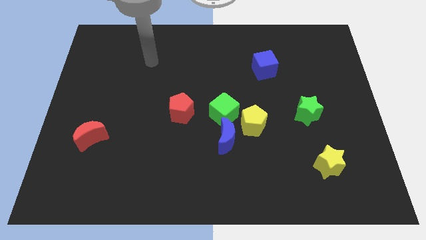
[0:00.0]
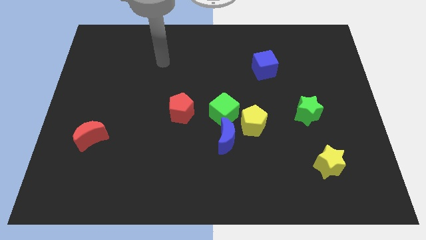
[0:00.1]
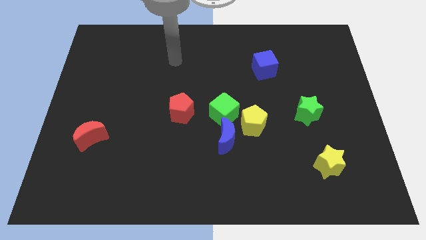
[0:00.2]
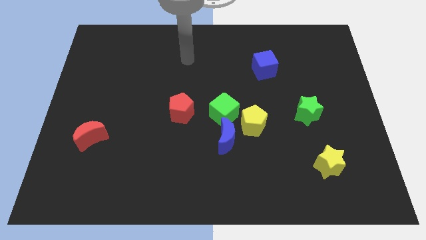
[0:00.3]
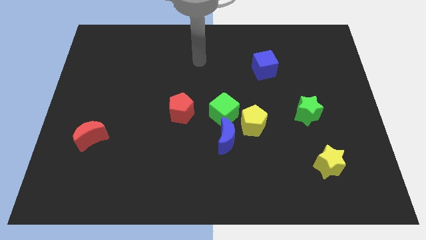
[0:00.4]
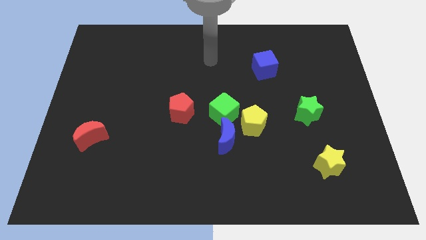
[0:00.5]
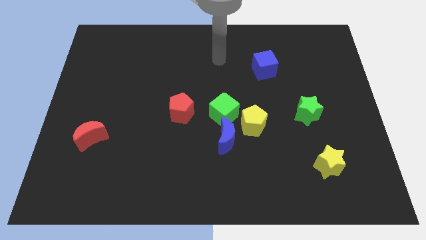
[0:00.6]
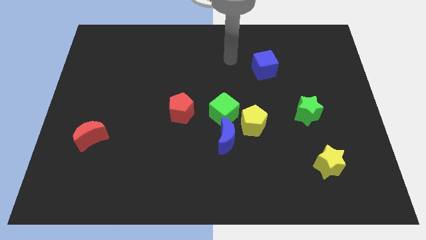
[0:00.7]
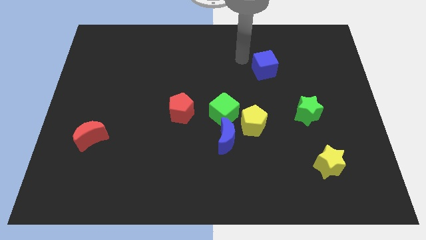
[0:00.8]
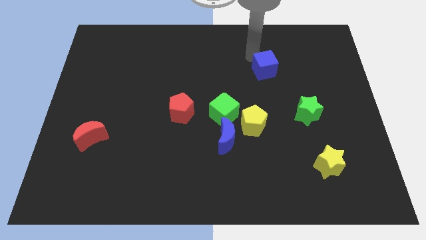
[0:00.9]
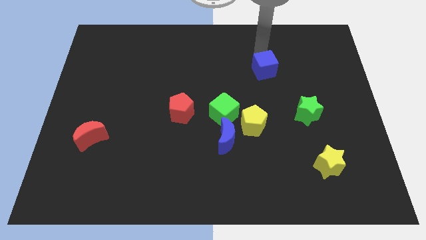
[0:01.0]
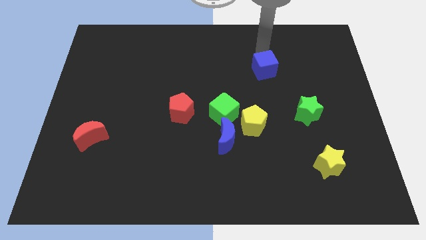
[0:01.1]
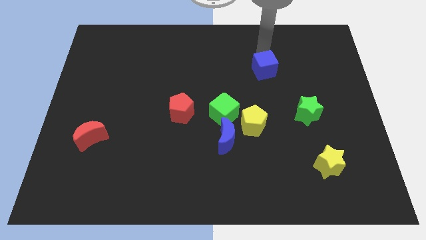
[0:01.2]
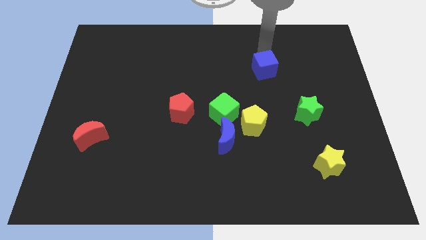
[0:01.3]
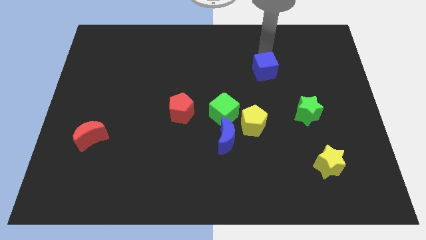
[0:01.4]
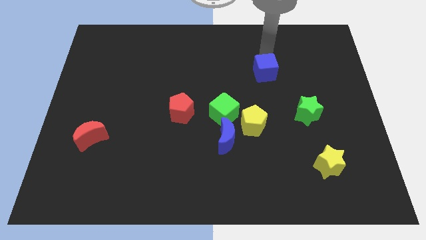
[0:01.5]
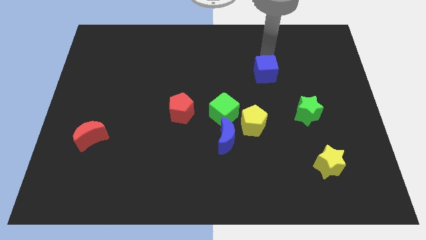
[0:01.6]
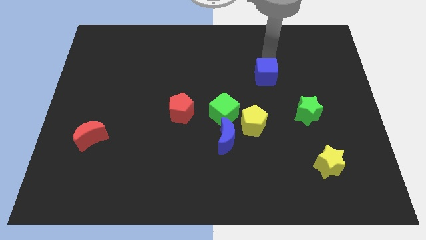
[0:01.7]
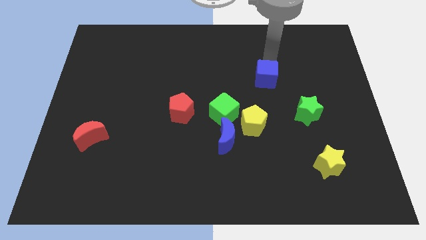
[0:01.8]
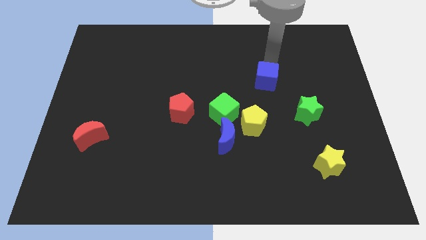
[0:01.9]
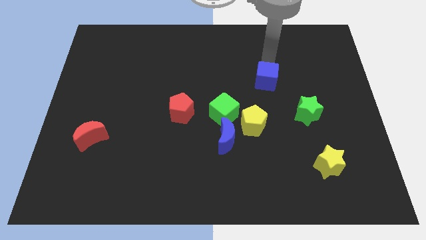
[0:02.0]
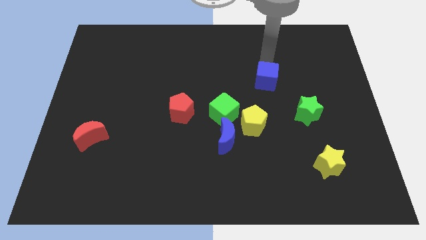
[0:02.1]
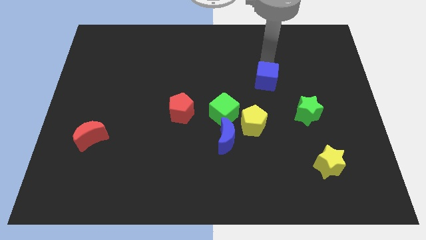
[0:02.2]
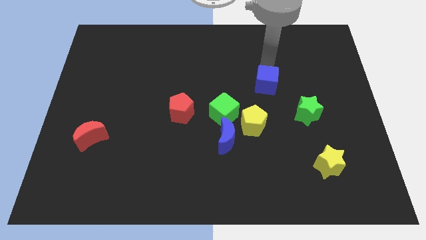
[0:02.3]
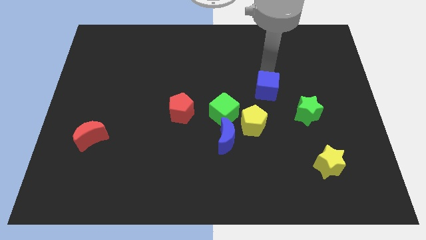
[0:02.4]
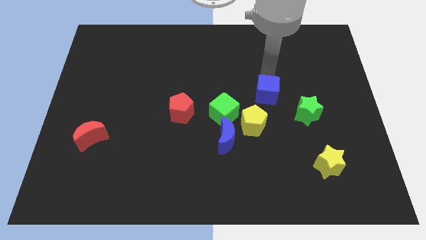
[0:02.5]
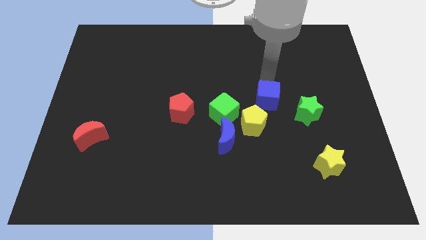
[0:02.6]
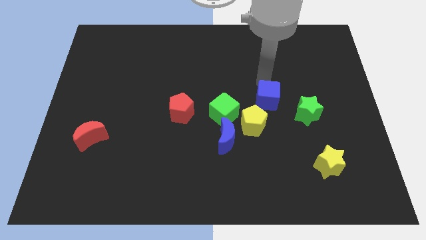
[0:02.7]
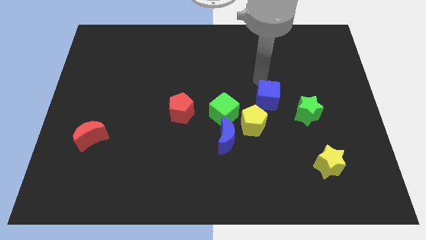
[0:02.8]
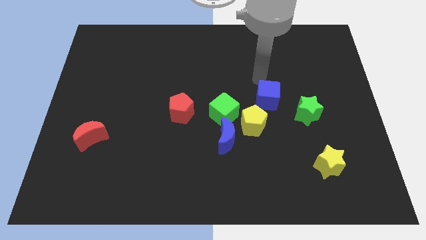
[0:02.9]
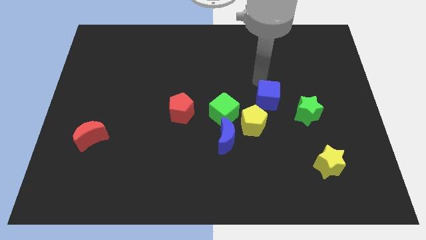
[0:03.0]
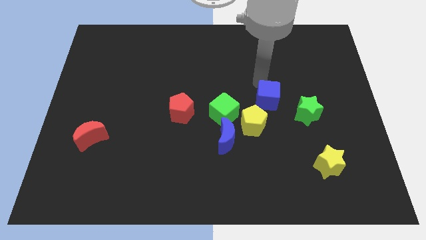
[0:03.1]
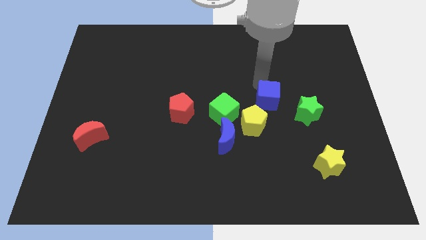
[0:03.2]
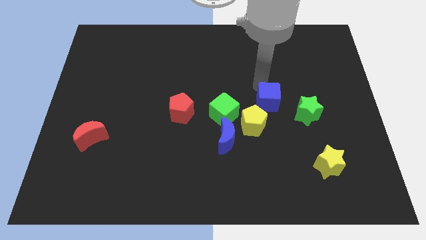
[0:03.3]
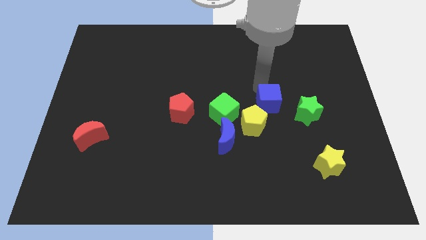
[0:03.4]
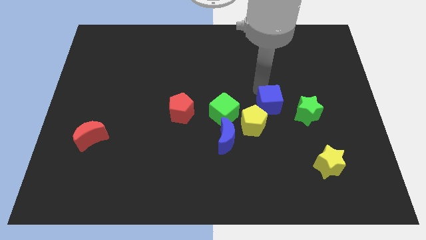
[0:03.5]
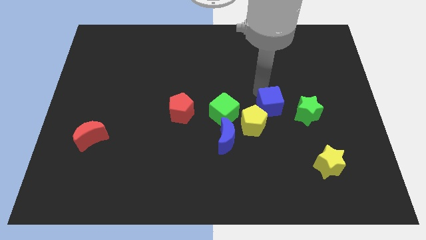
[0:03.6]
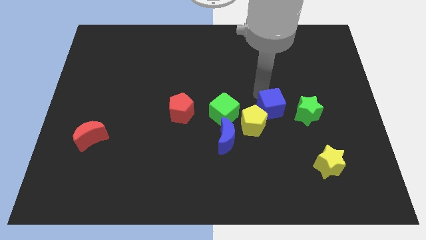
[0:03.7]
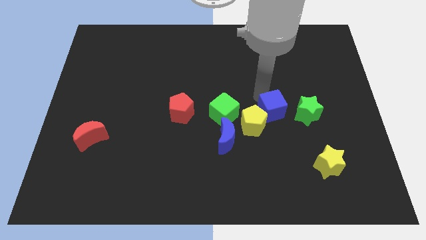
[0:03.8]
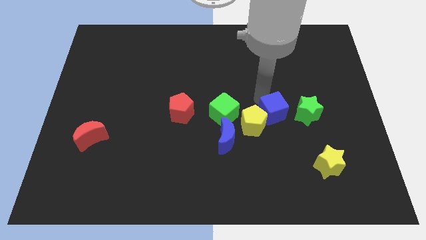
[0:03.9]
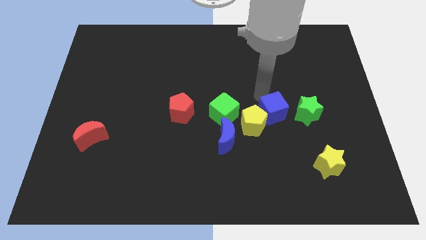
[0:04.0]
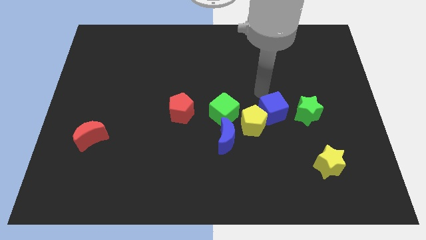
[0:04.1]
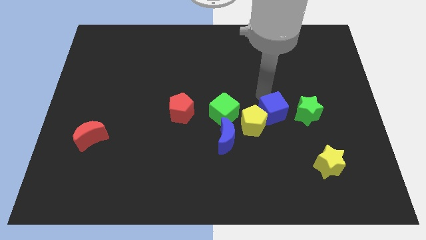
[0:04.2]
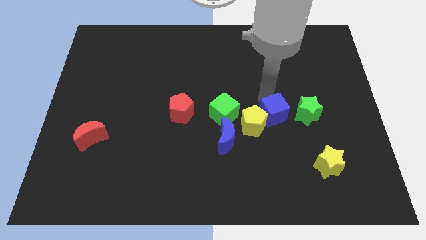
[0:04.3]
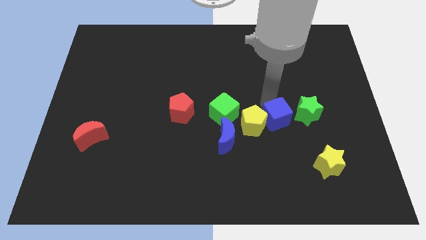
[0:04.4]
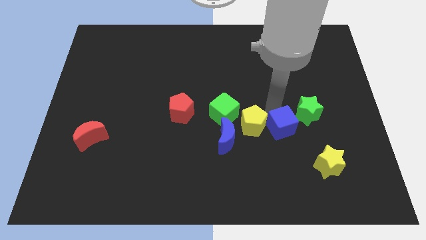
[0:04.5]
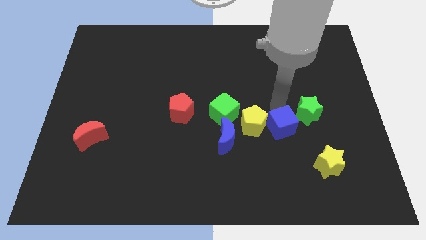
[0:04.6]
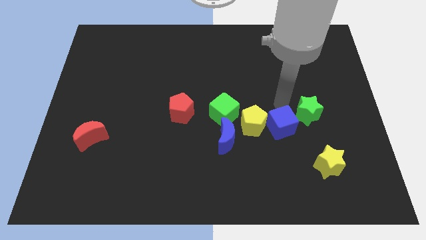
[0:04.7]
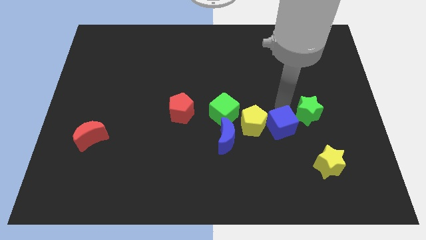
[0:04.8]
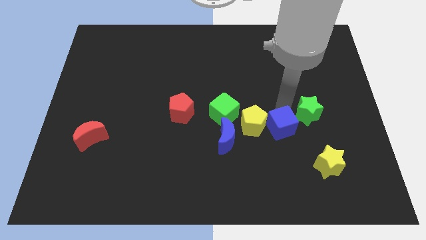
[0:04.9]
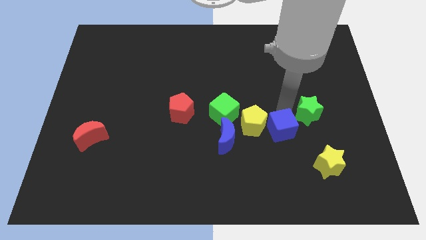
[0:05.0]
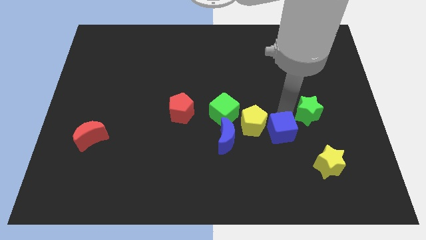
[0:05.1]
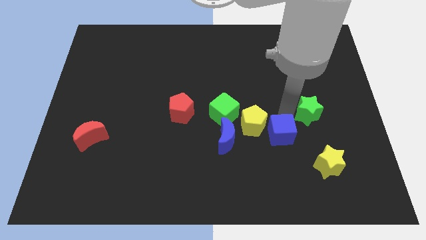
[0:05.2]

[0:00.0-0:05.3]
move the blue cube downwards

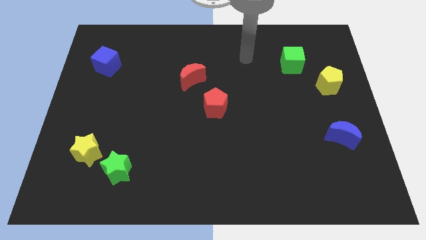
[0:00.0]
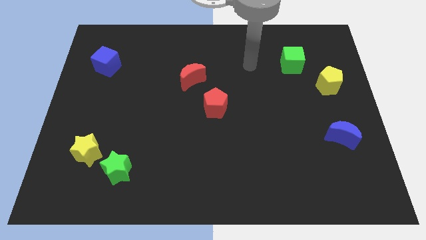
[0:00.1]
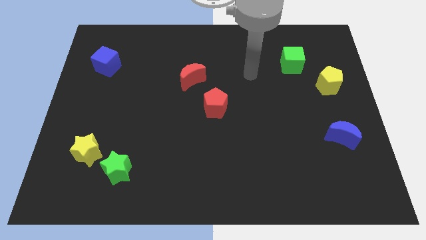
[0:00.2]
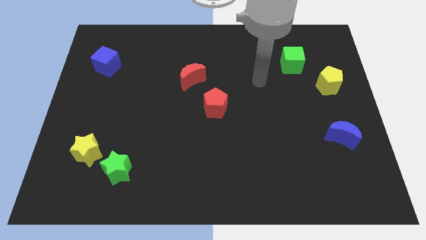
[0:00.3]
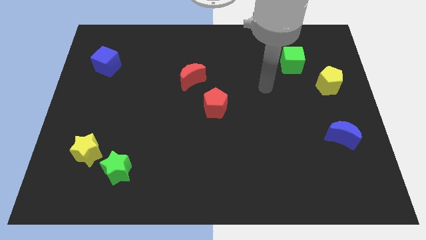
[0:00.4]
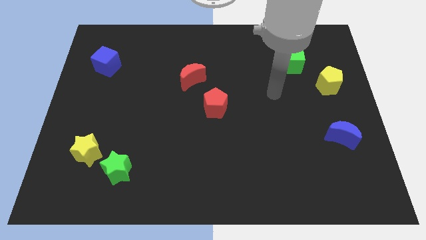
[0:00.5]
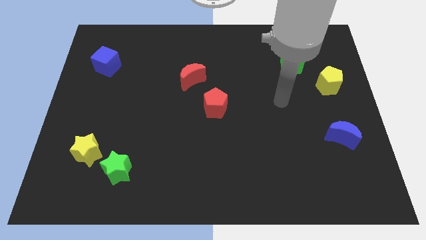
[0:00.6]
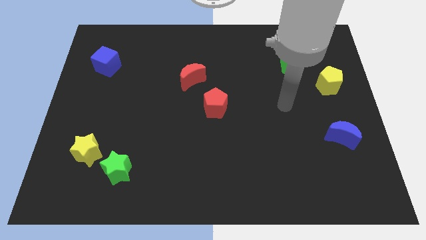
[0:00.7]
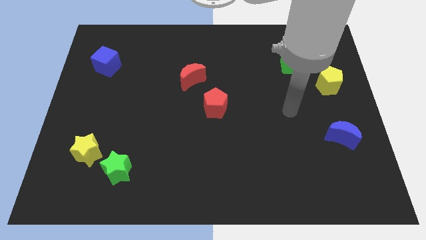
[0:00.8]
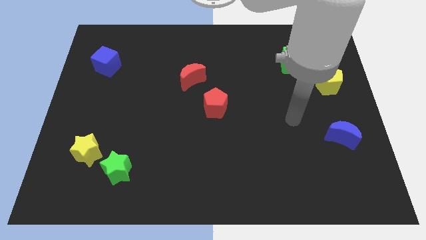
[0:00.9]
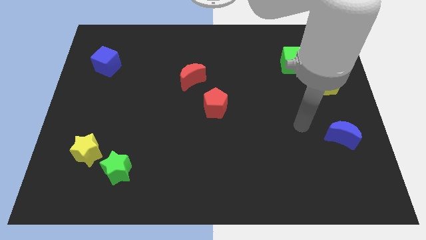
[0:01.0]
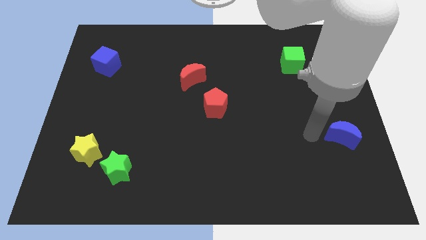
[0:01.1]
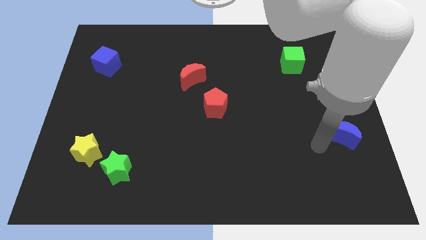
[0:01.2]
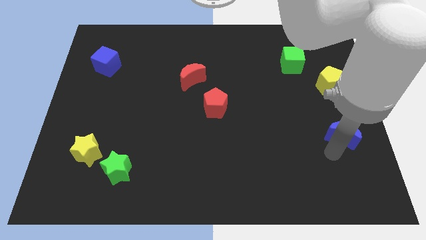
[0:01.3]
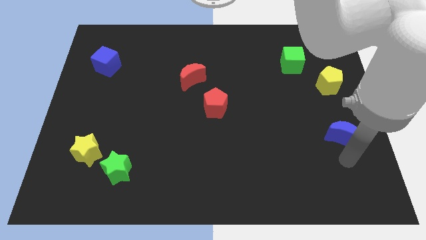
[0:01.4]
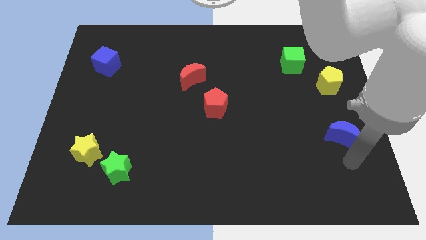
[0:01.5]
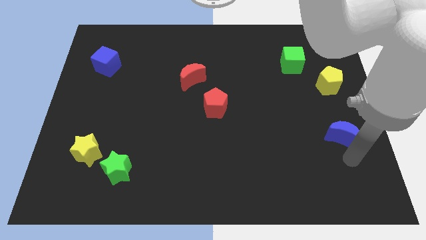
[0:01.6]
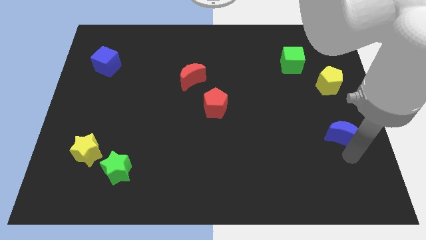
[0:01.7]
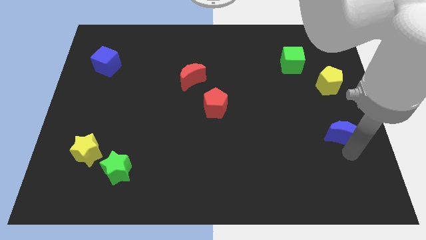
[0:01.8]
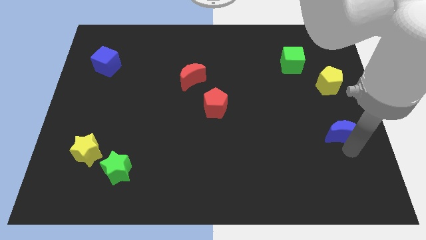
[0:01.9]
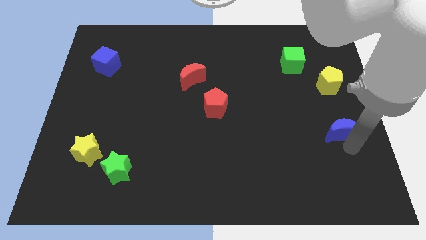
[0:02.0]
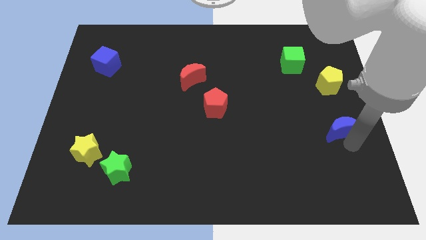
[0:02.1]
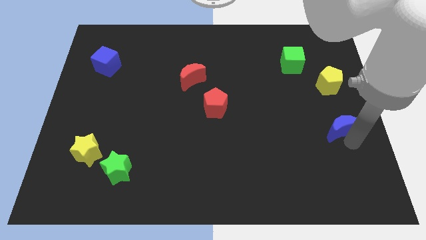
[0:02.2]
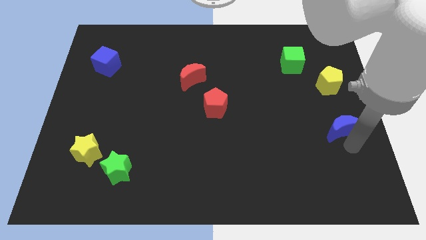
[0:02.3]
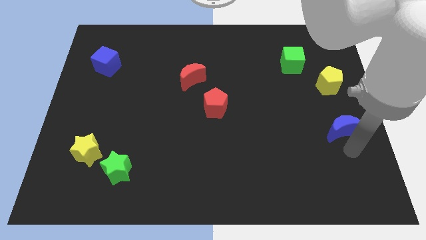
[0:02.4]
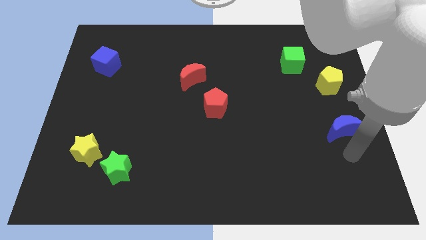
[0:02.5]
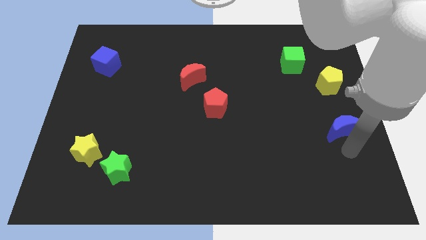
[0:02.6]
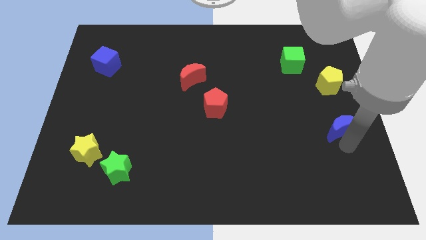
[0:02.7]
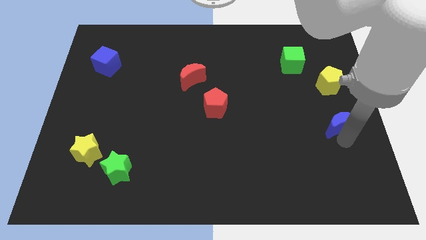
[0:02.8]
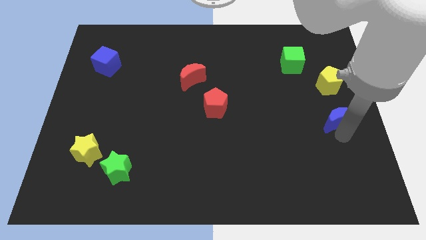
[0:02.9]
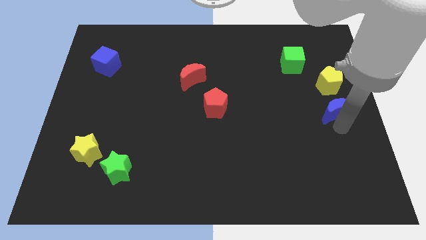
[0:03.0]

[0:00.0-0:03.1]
move the blue moon upwards a little
